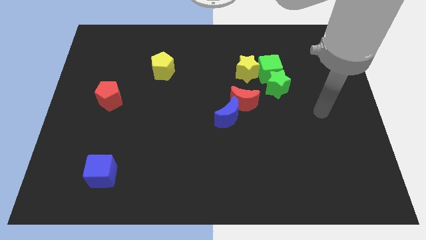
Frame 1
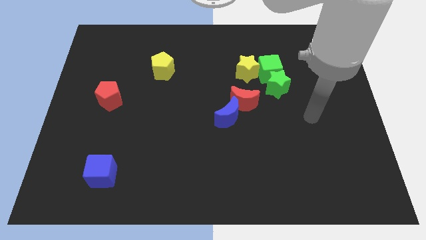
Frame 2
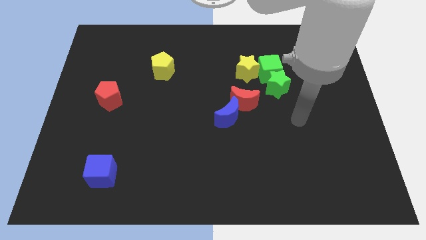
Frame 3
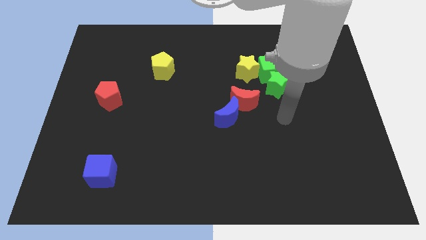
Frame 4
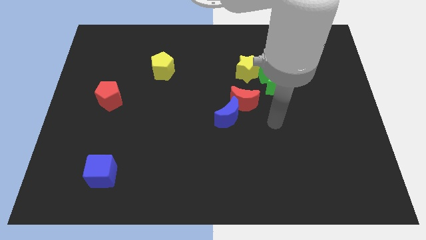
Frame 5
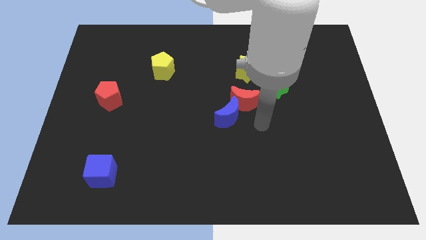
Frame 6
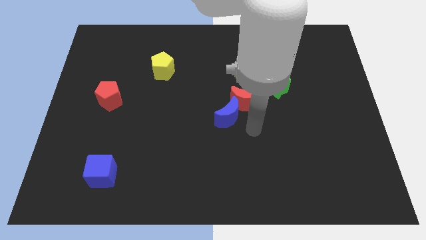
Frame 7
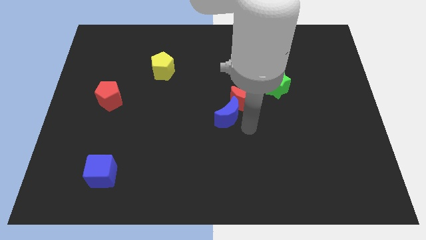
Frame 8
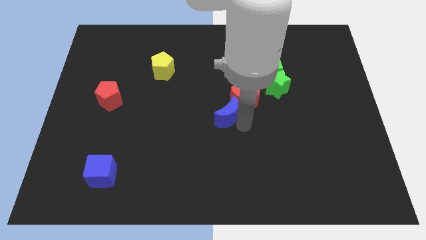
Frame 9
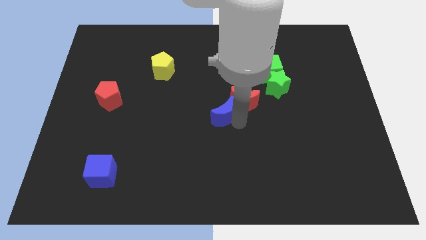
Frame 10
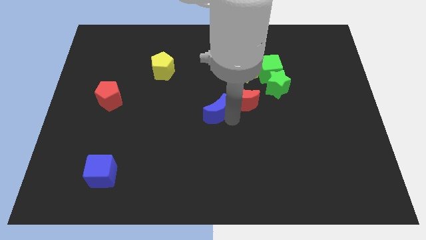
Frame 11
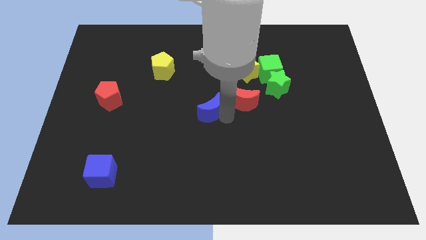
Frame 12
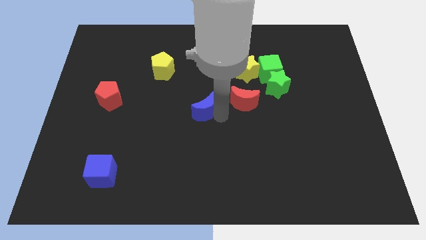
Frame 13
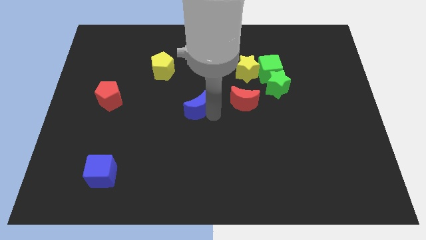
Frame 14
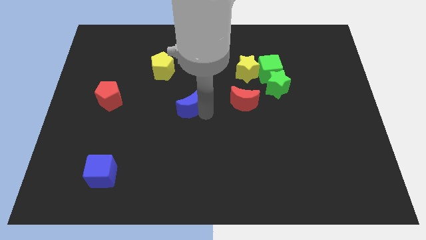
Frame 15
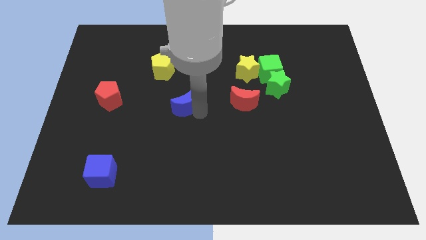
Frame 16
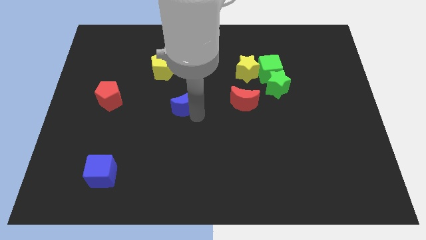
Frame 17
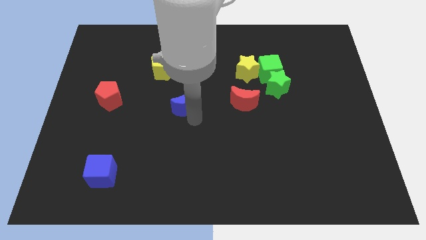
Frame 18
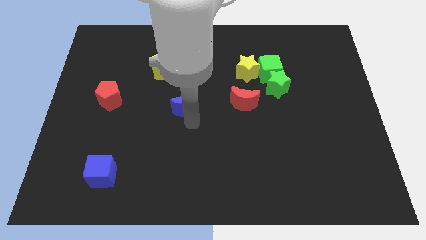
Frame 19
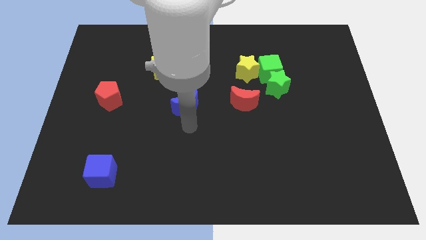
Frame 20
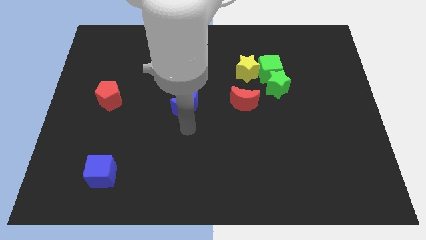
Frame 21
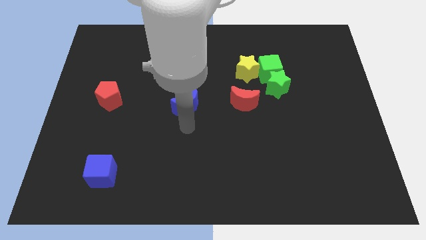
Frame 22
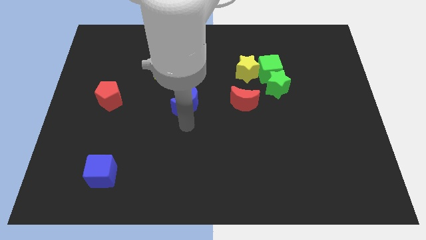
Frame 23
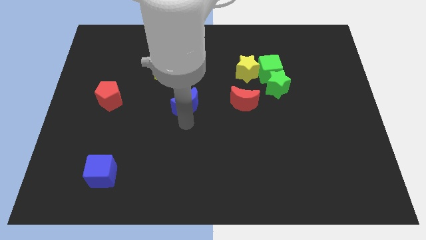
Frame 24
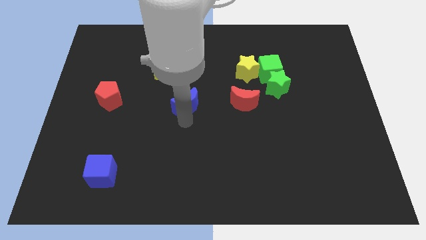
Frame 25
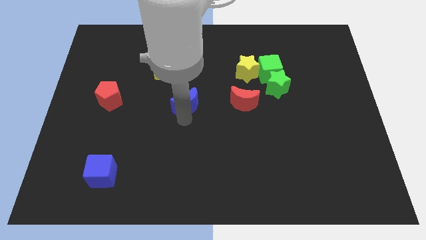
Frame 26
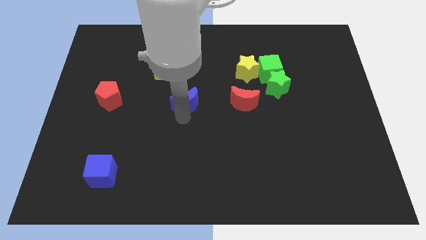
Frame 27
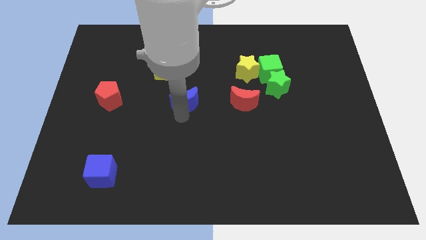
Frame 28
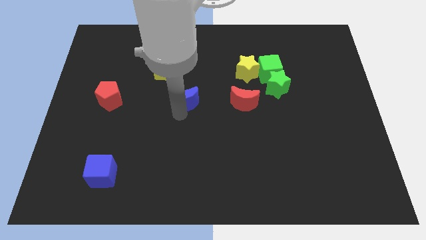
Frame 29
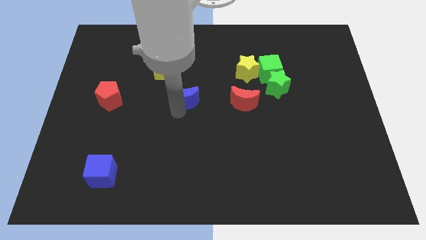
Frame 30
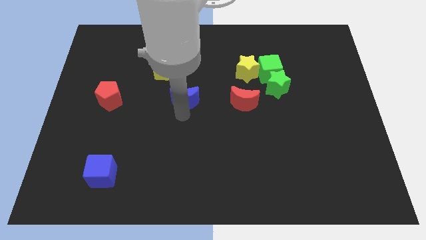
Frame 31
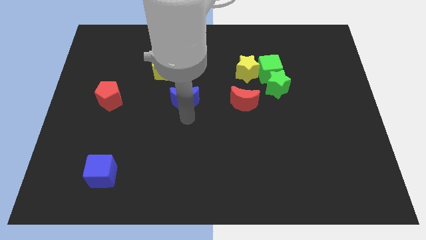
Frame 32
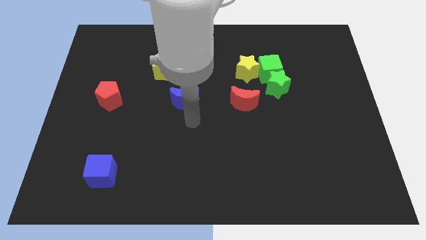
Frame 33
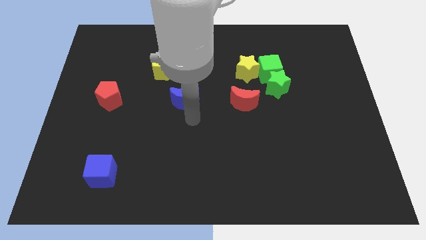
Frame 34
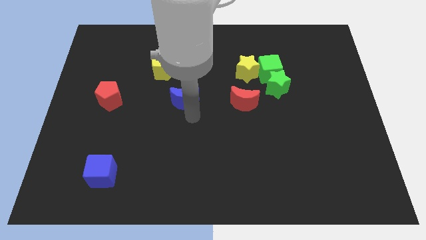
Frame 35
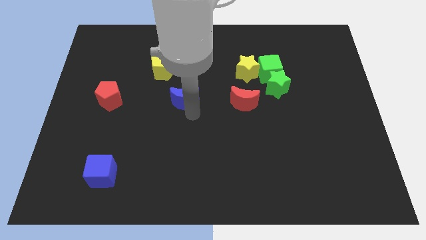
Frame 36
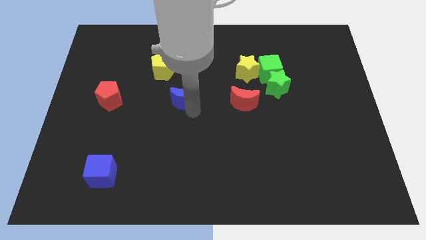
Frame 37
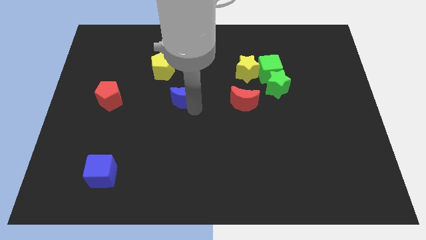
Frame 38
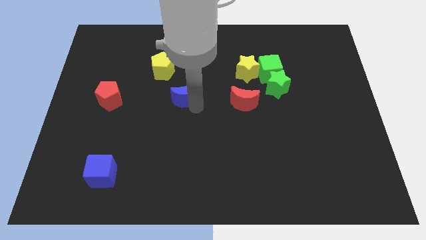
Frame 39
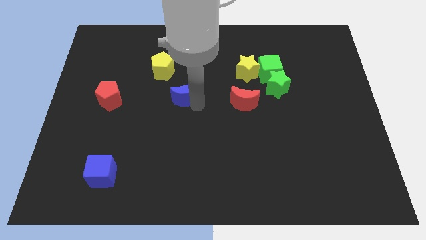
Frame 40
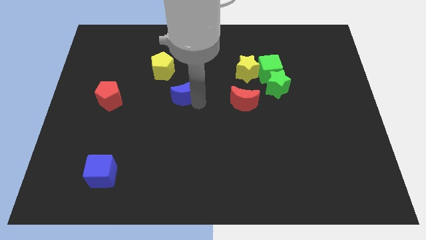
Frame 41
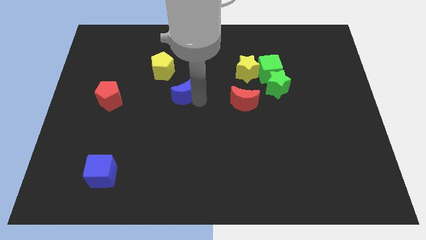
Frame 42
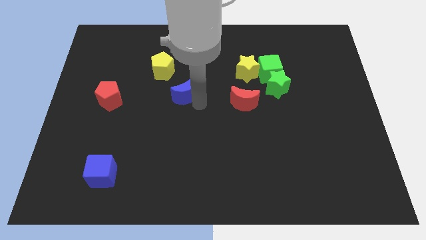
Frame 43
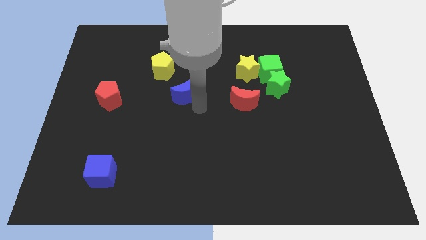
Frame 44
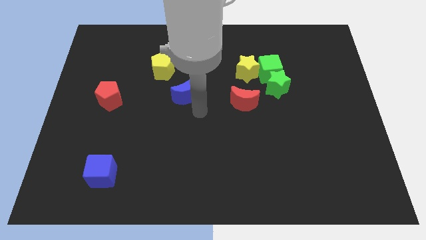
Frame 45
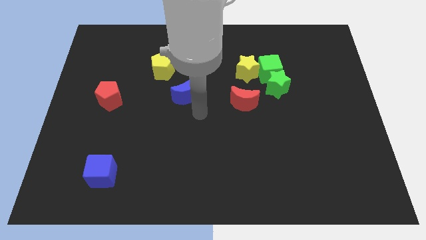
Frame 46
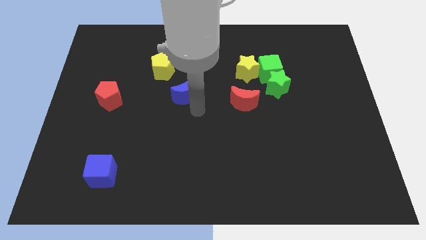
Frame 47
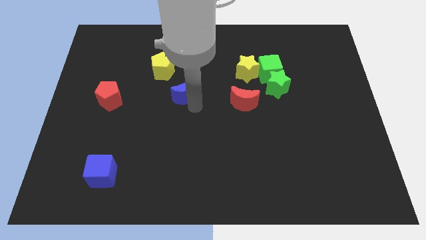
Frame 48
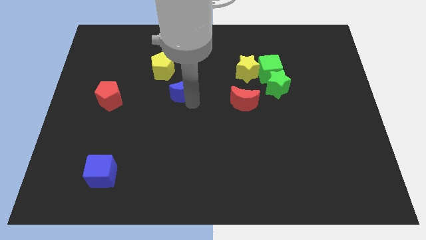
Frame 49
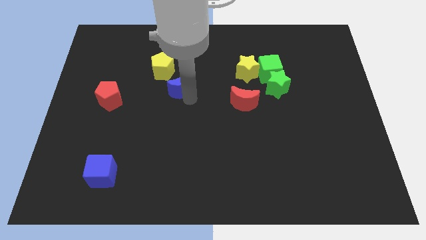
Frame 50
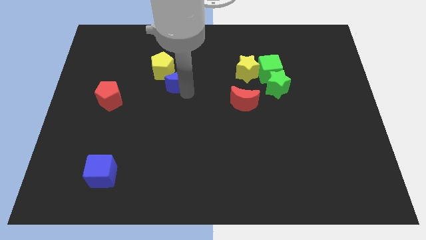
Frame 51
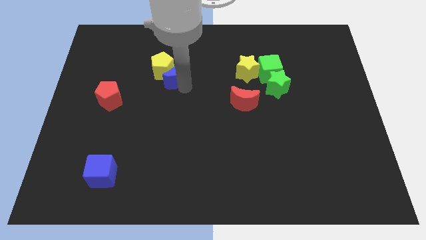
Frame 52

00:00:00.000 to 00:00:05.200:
slide the blue moon towards the yellow pentagon

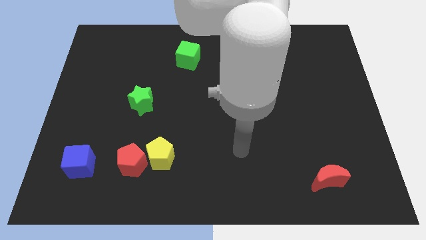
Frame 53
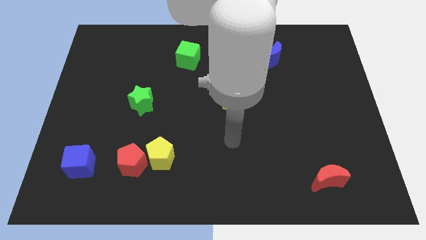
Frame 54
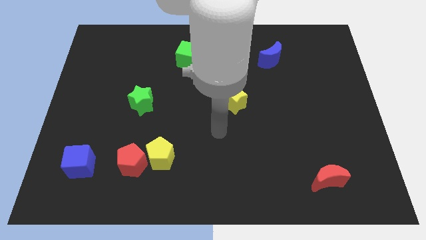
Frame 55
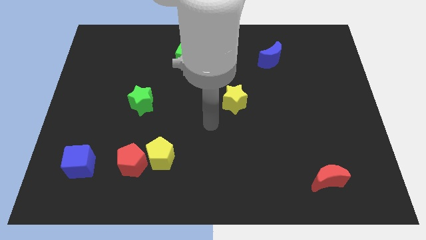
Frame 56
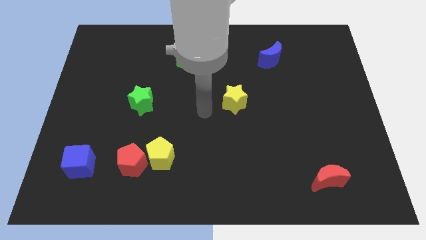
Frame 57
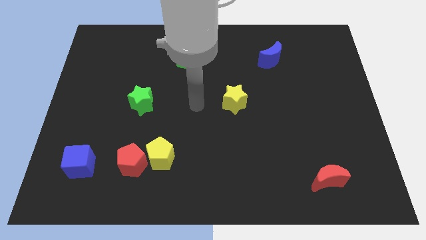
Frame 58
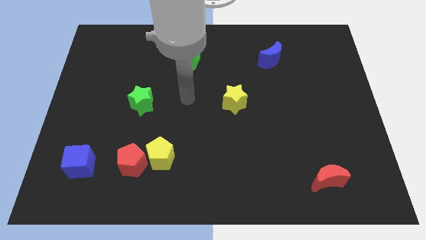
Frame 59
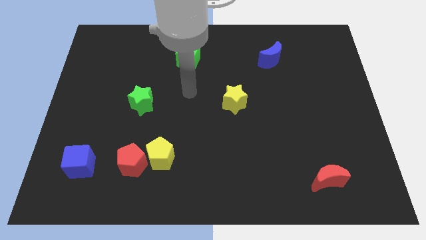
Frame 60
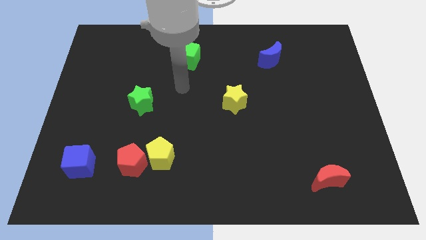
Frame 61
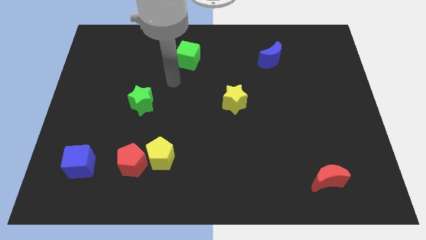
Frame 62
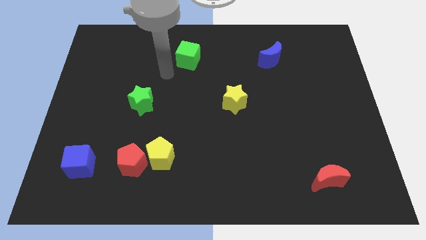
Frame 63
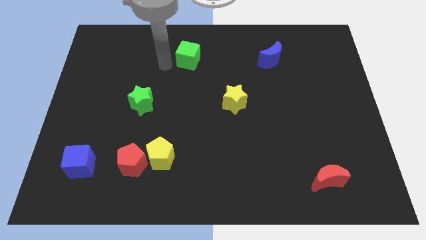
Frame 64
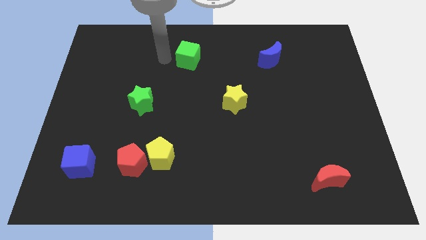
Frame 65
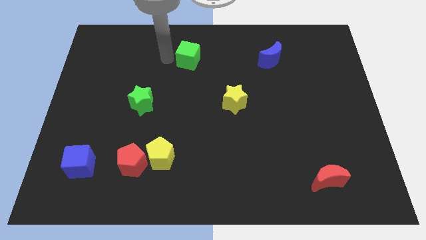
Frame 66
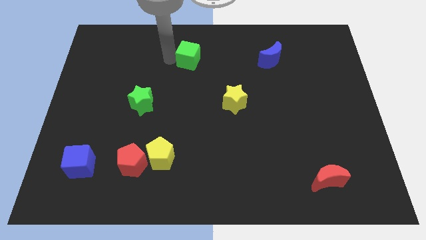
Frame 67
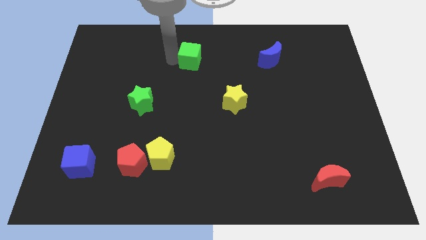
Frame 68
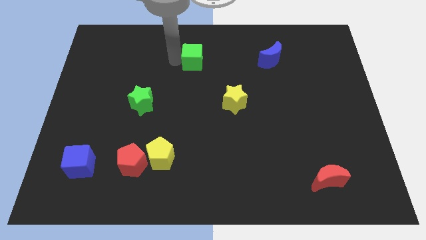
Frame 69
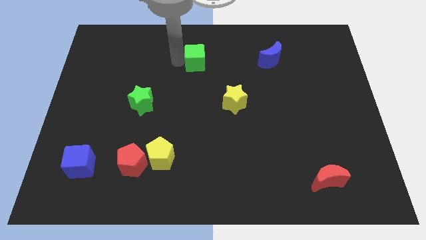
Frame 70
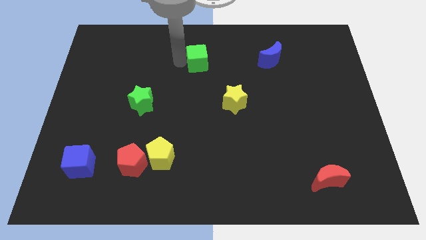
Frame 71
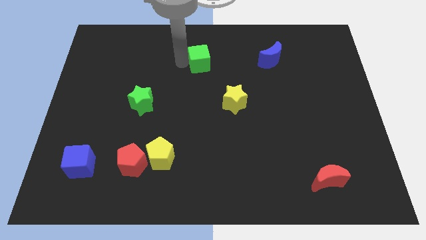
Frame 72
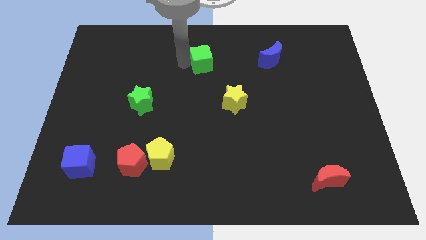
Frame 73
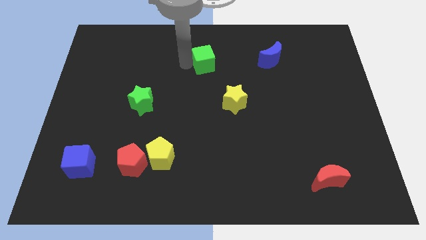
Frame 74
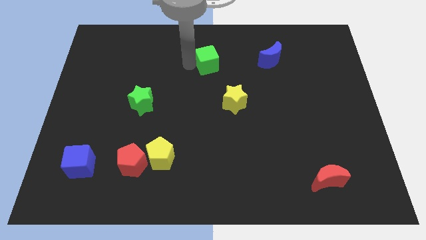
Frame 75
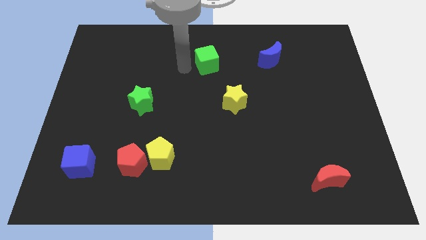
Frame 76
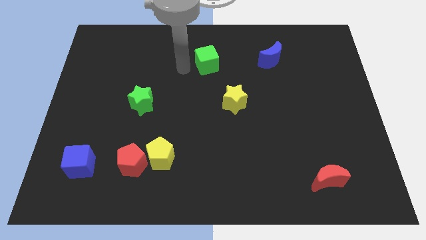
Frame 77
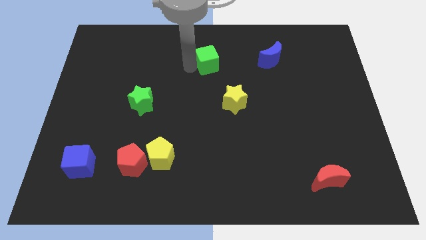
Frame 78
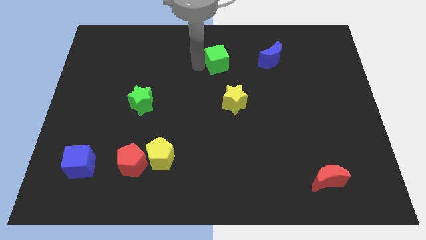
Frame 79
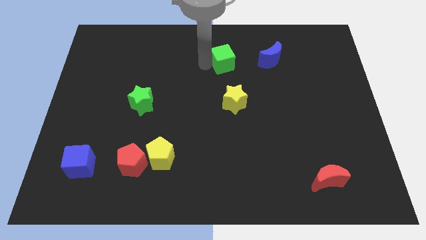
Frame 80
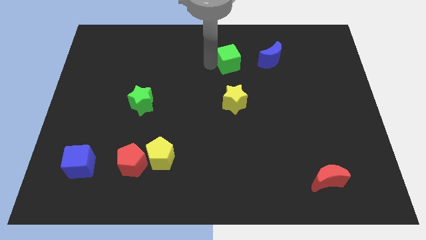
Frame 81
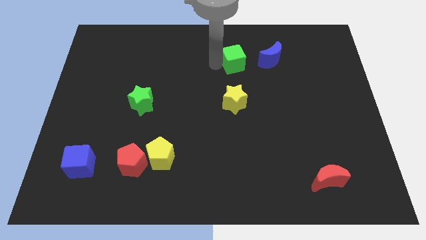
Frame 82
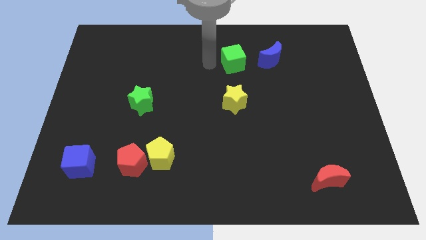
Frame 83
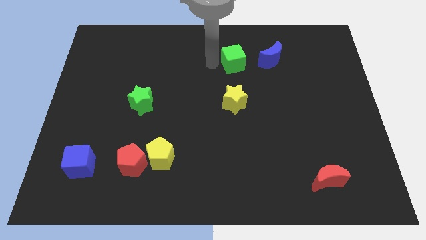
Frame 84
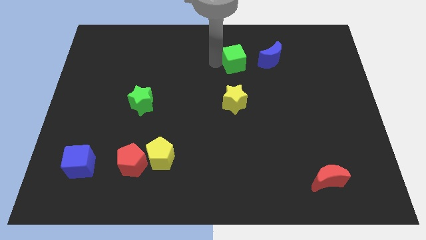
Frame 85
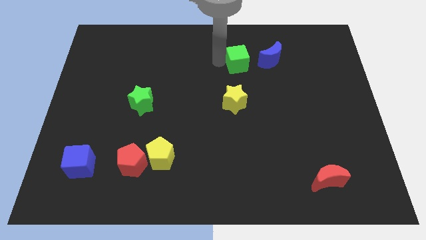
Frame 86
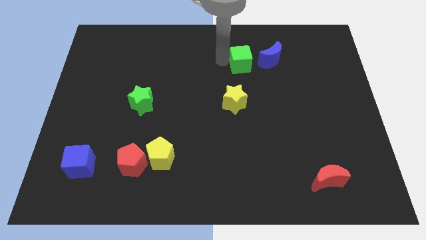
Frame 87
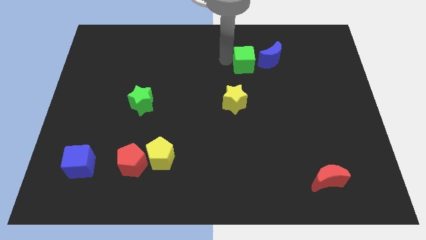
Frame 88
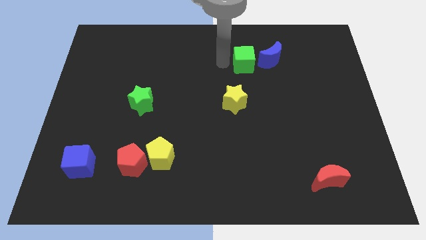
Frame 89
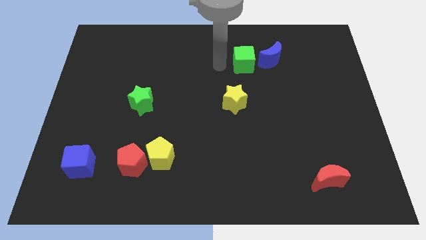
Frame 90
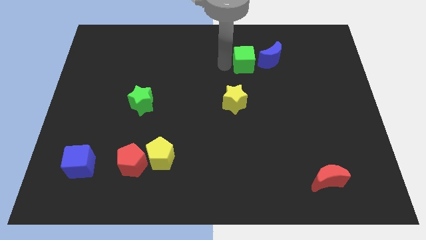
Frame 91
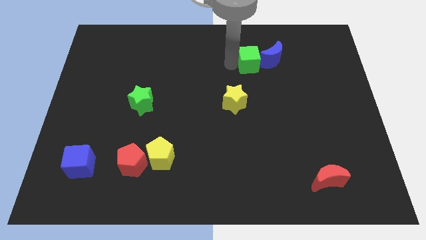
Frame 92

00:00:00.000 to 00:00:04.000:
slide the green cube close to the blue moon
